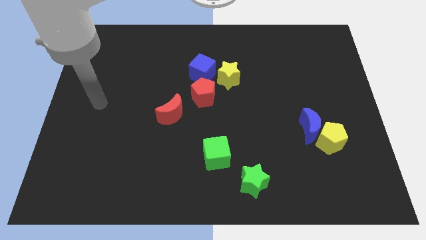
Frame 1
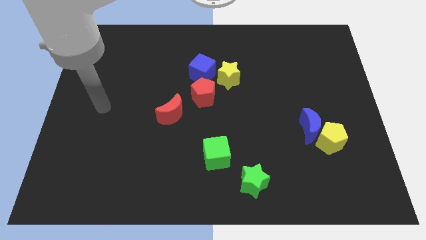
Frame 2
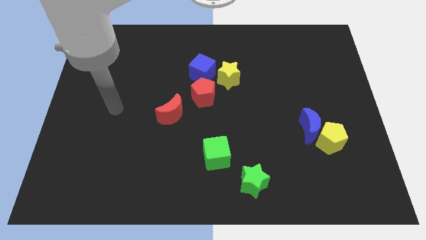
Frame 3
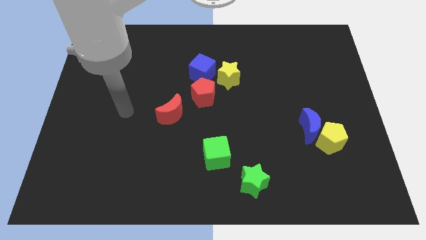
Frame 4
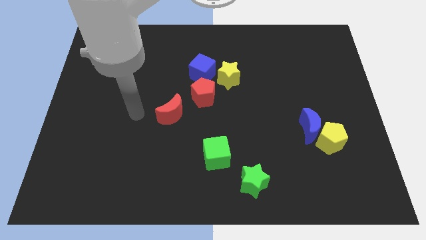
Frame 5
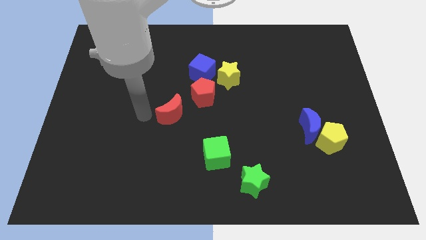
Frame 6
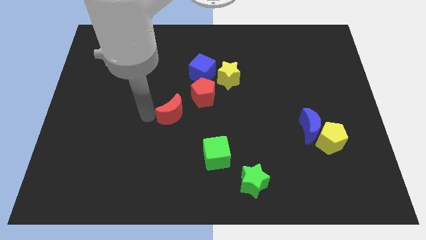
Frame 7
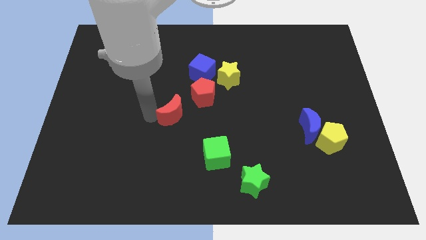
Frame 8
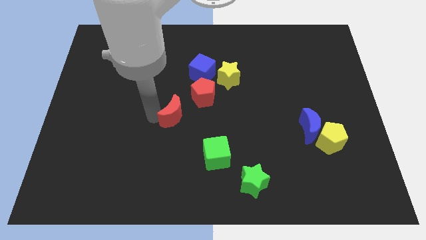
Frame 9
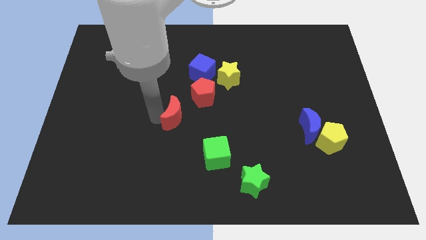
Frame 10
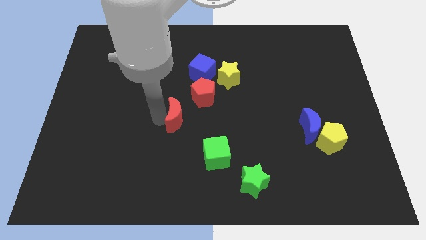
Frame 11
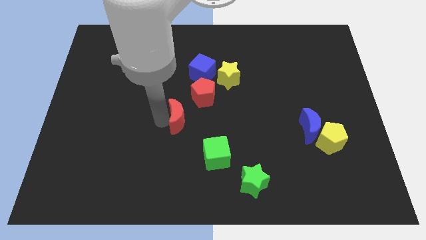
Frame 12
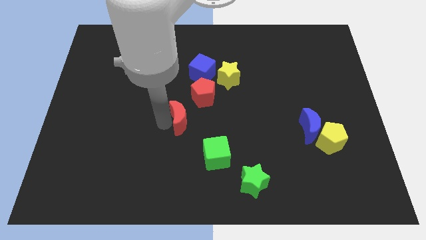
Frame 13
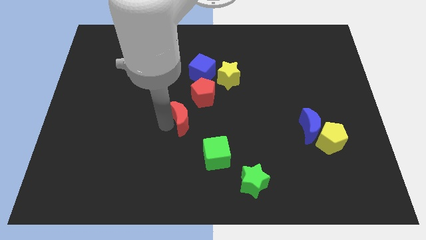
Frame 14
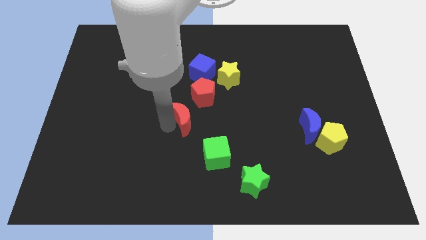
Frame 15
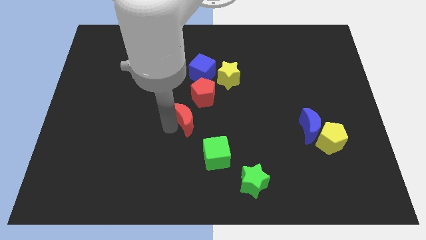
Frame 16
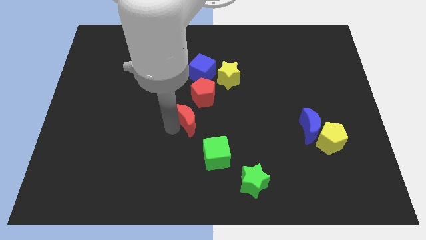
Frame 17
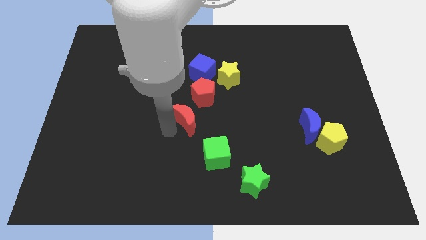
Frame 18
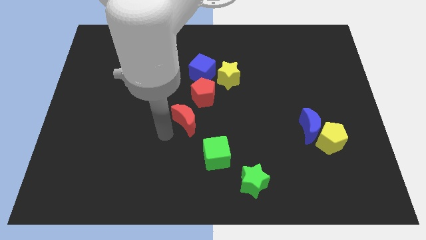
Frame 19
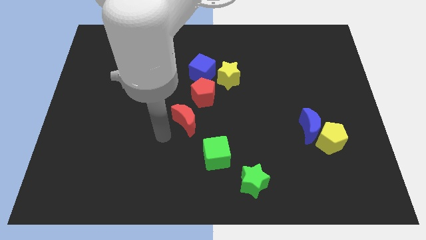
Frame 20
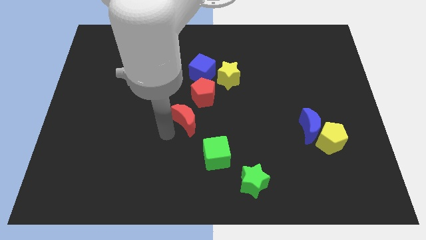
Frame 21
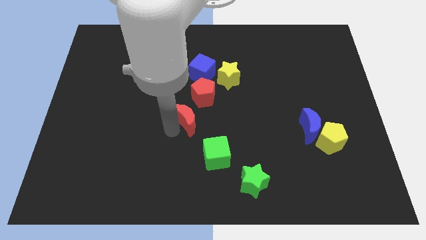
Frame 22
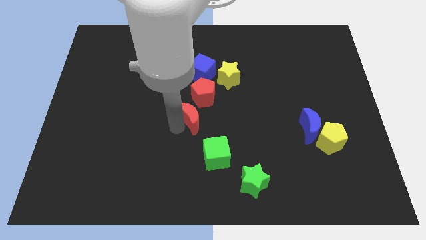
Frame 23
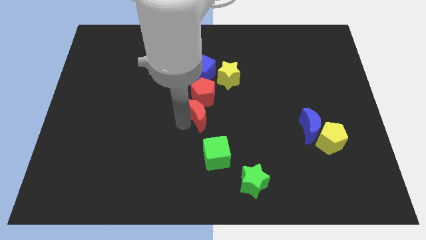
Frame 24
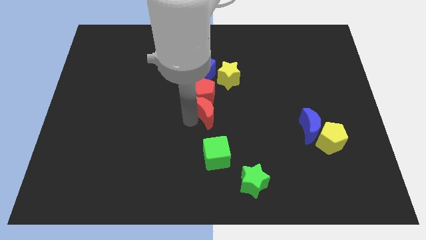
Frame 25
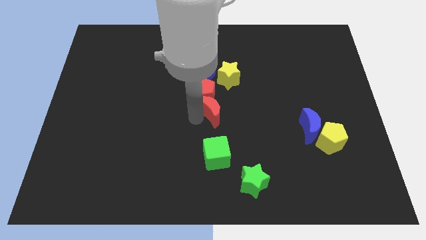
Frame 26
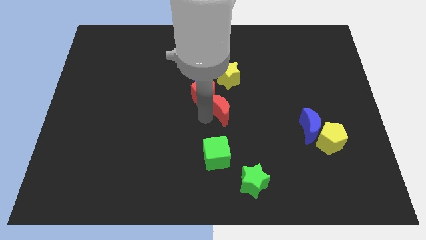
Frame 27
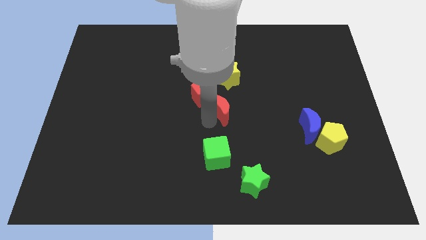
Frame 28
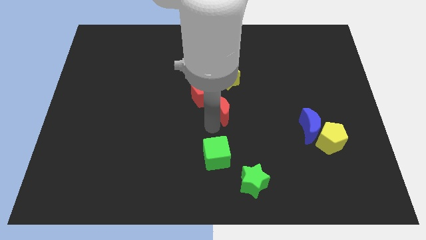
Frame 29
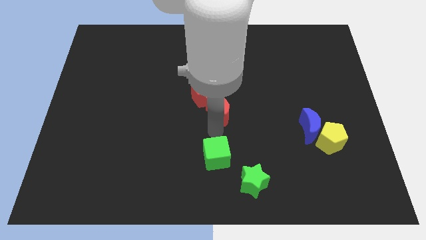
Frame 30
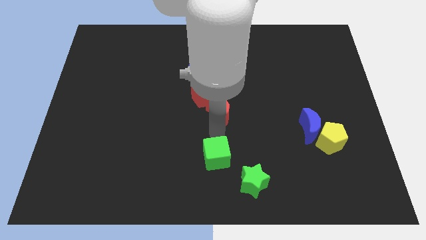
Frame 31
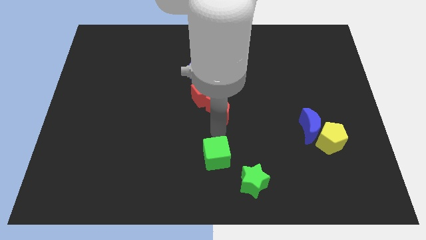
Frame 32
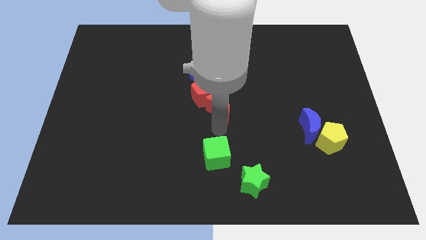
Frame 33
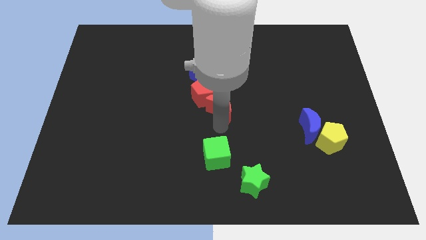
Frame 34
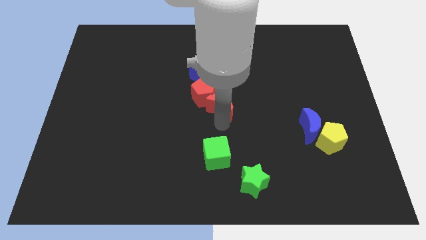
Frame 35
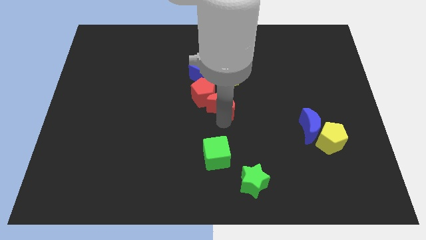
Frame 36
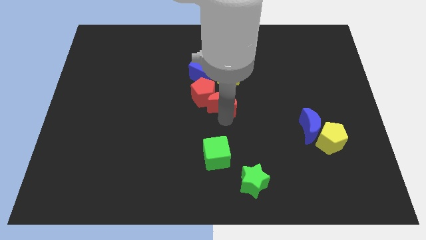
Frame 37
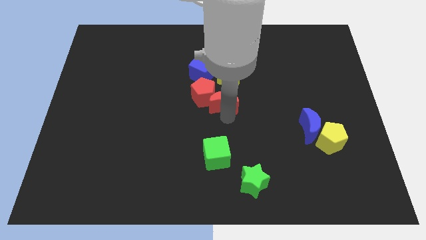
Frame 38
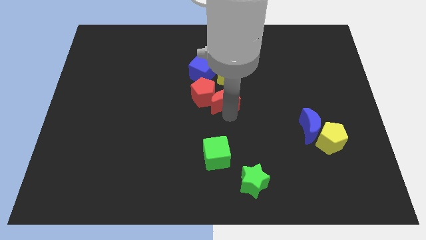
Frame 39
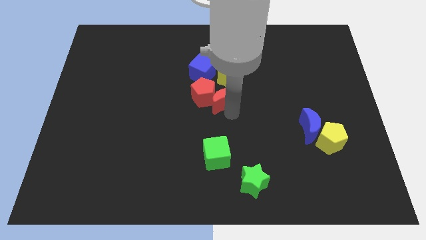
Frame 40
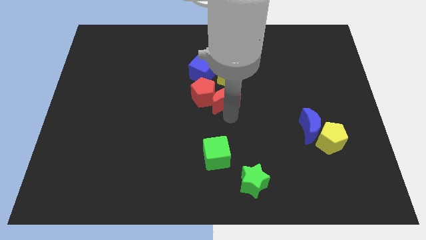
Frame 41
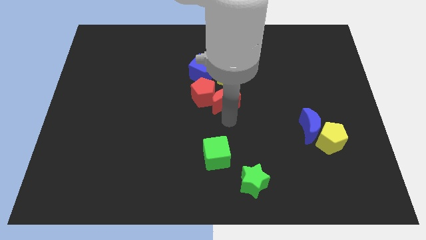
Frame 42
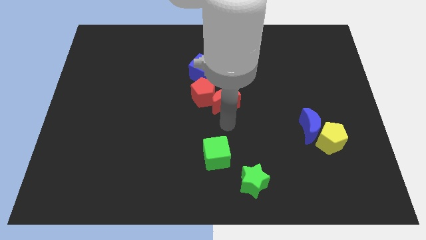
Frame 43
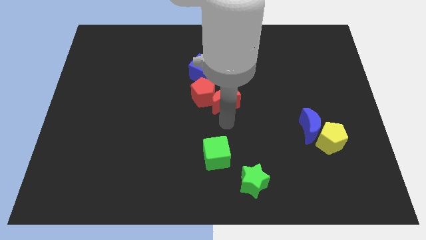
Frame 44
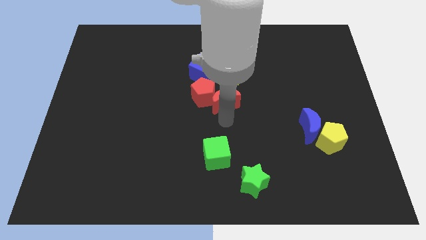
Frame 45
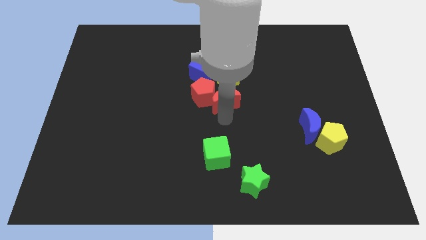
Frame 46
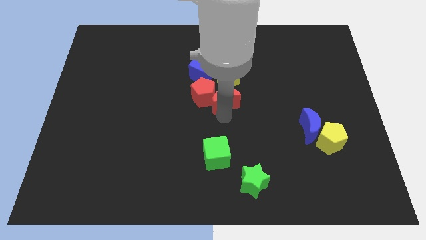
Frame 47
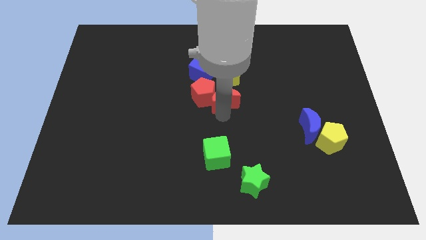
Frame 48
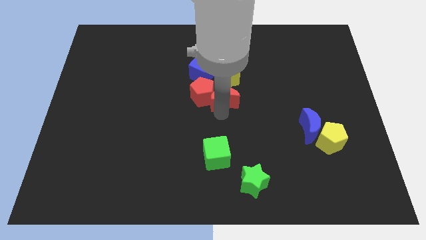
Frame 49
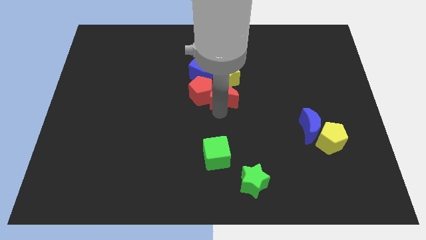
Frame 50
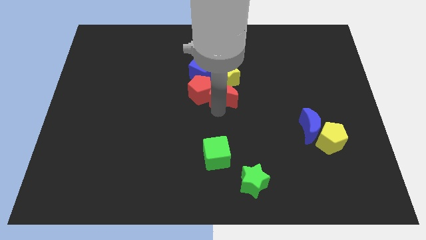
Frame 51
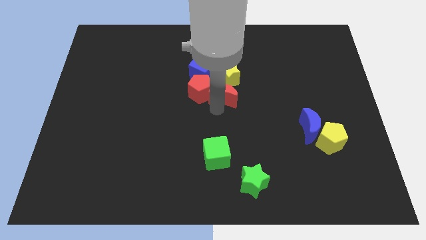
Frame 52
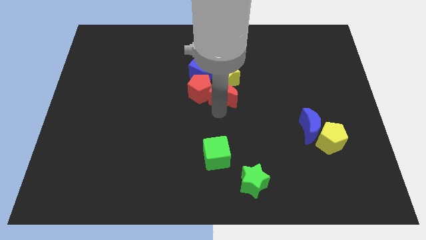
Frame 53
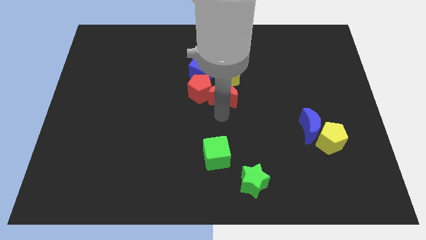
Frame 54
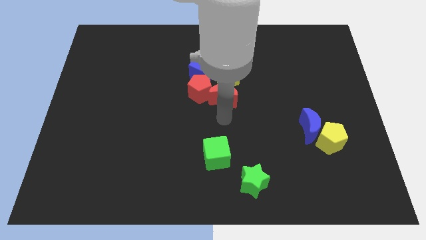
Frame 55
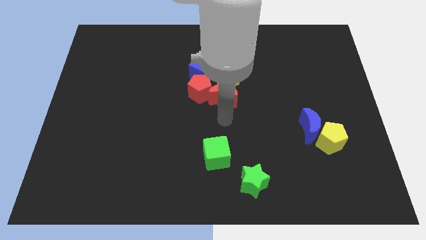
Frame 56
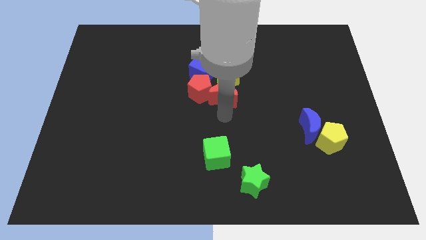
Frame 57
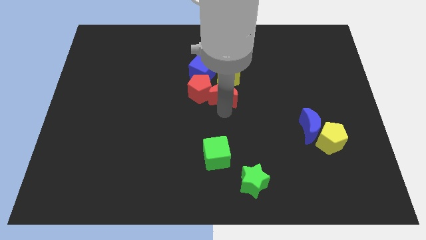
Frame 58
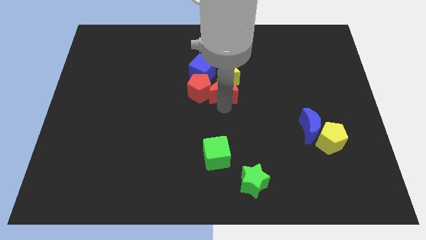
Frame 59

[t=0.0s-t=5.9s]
slide the red moon next to the yellow star
